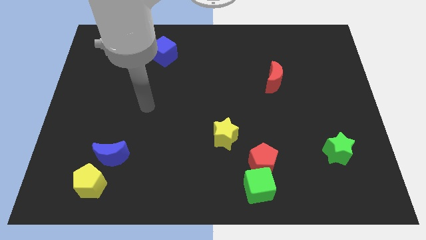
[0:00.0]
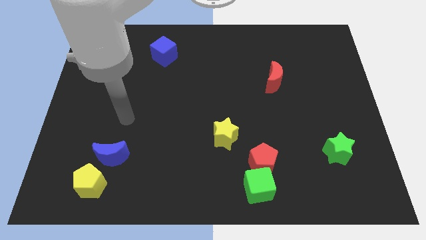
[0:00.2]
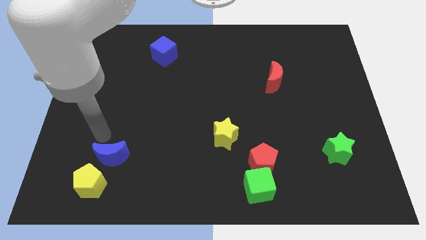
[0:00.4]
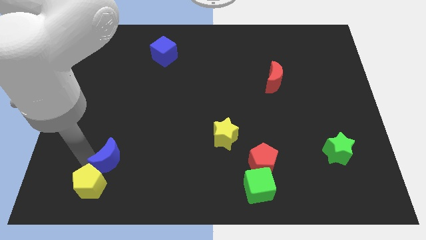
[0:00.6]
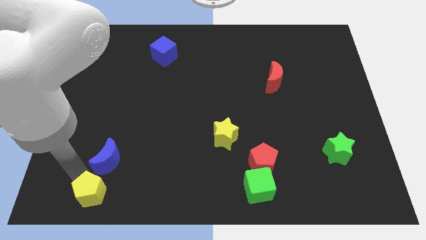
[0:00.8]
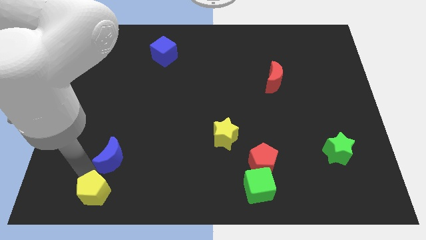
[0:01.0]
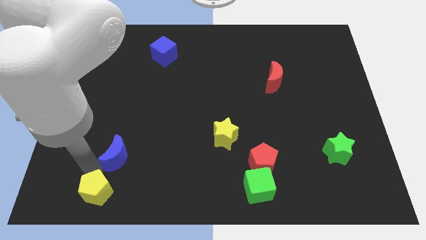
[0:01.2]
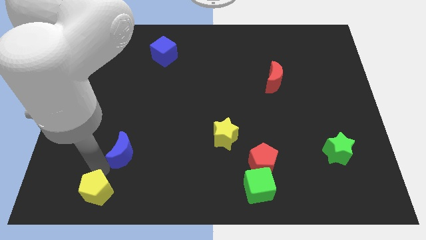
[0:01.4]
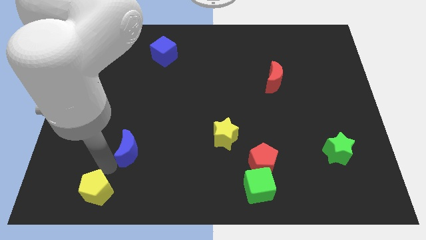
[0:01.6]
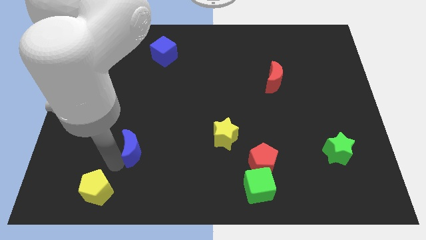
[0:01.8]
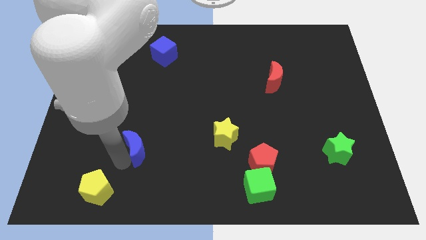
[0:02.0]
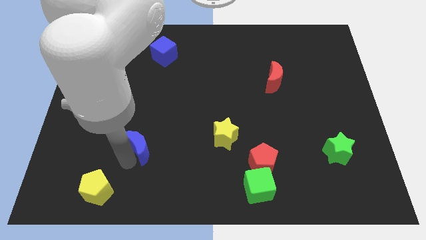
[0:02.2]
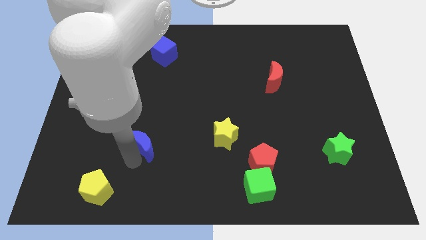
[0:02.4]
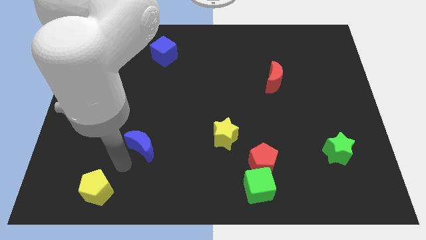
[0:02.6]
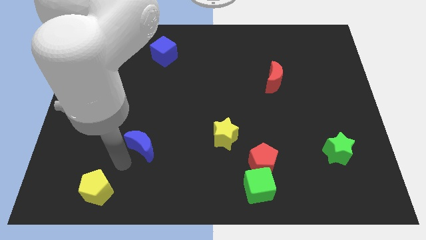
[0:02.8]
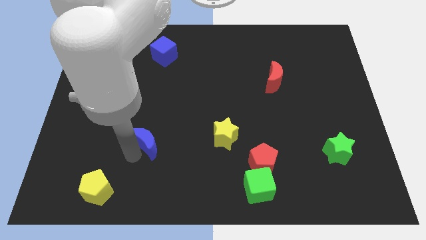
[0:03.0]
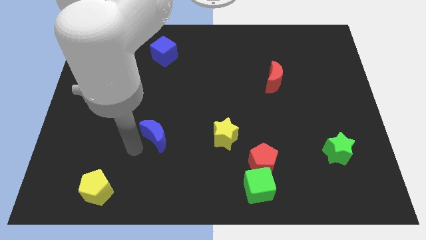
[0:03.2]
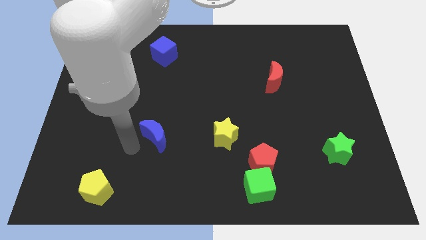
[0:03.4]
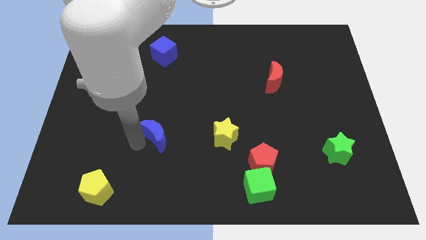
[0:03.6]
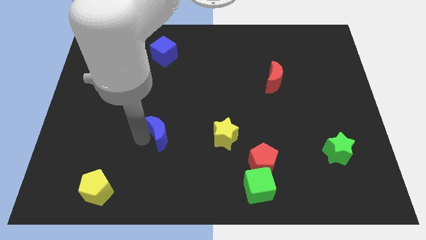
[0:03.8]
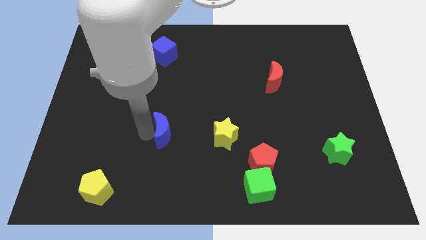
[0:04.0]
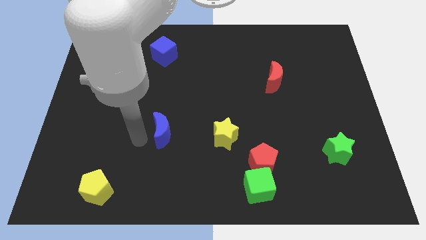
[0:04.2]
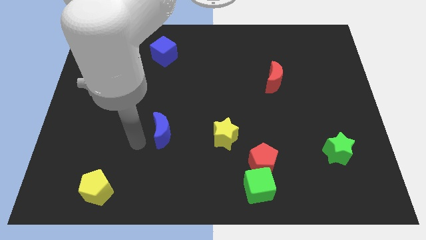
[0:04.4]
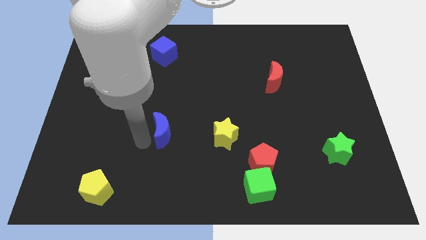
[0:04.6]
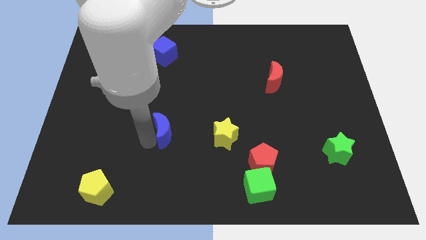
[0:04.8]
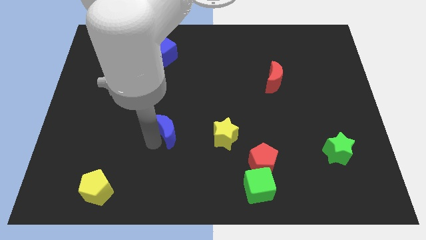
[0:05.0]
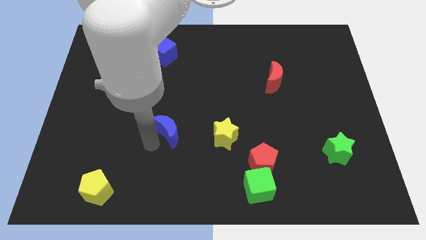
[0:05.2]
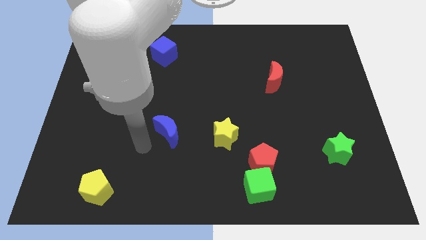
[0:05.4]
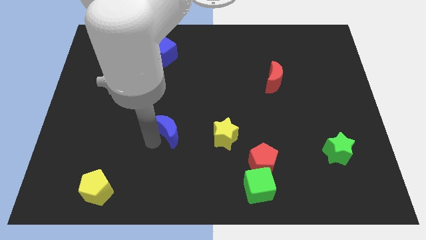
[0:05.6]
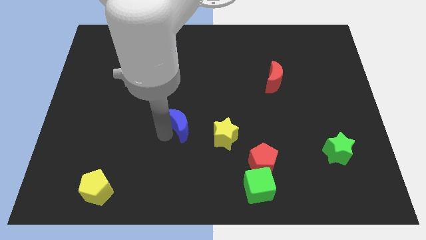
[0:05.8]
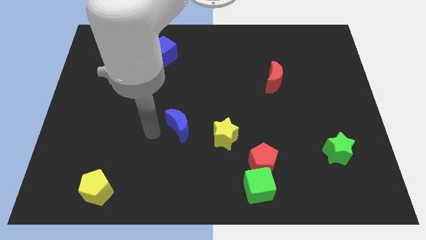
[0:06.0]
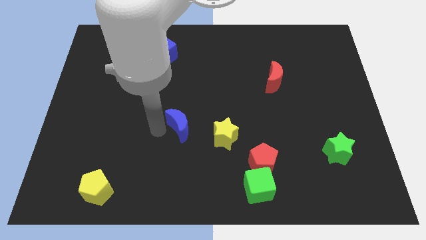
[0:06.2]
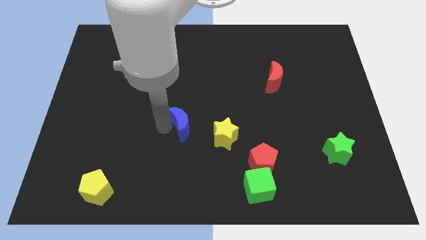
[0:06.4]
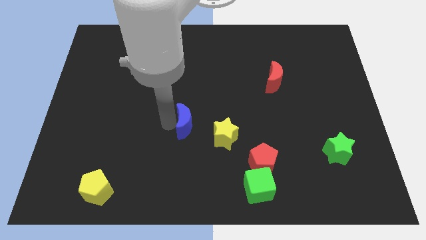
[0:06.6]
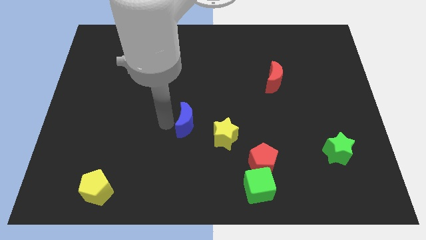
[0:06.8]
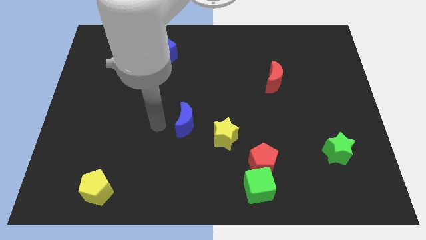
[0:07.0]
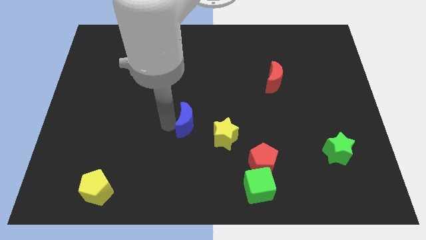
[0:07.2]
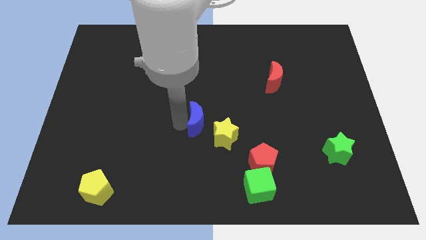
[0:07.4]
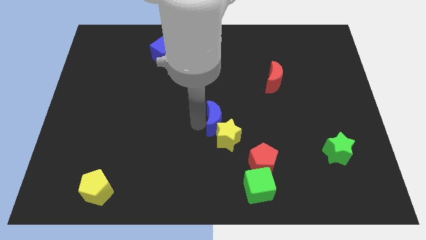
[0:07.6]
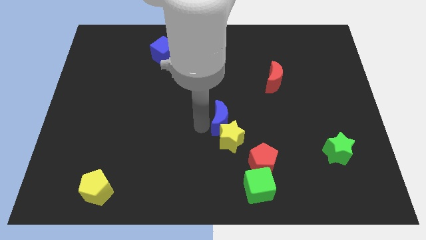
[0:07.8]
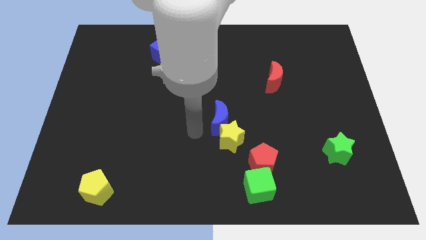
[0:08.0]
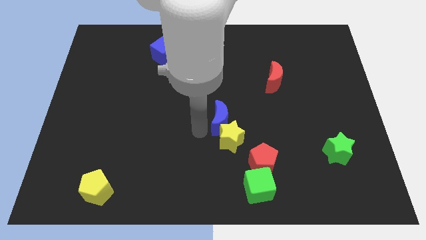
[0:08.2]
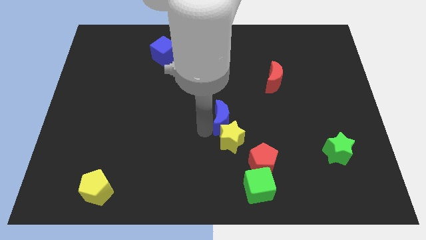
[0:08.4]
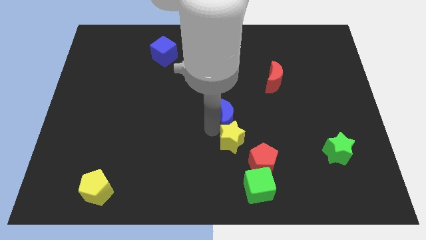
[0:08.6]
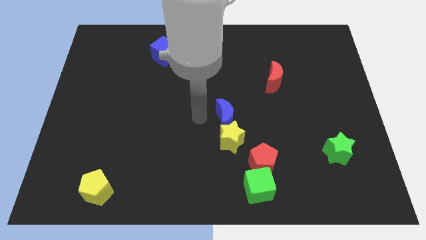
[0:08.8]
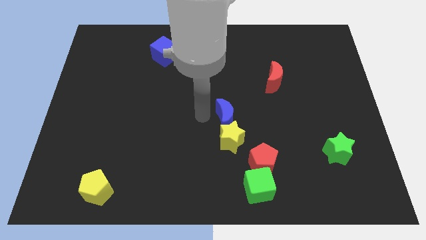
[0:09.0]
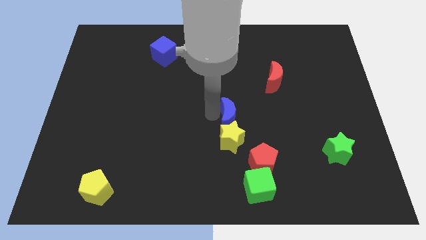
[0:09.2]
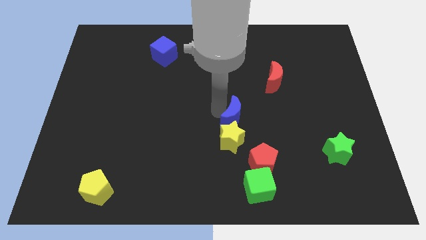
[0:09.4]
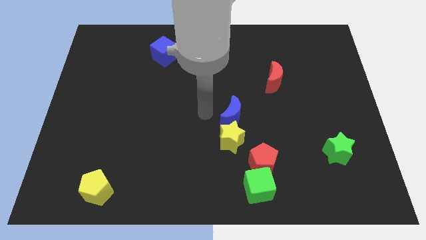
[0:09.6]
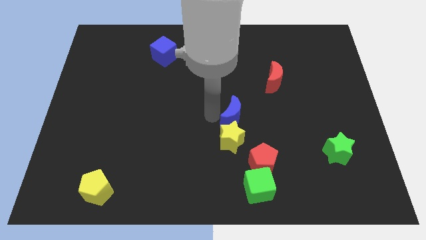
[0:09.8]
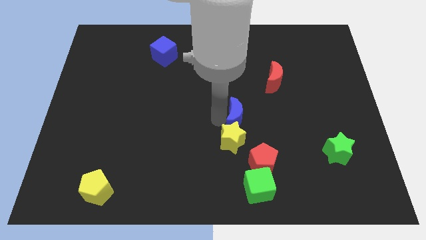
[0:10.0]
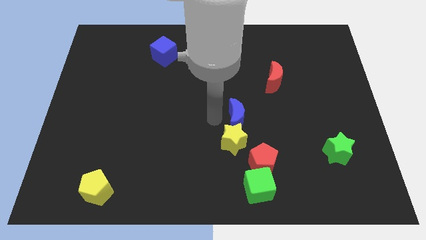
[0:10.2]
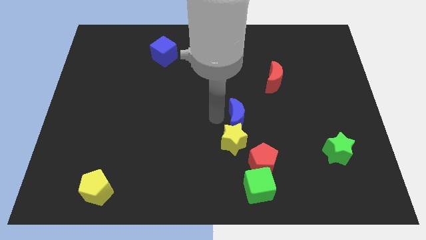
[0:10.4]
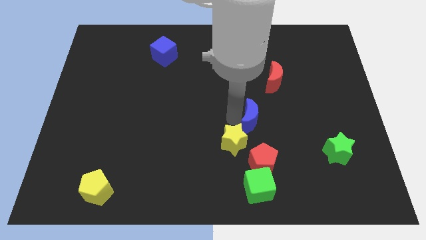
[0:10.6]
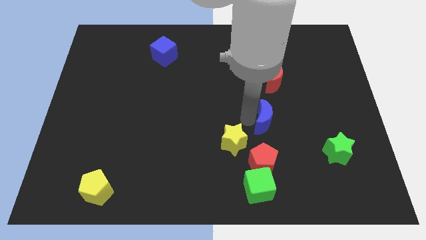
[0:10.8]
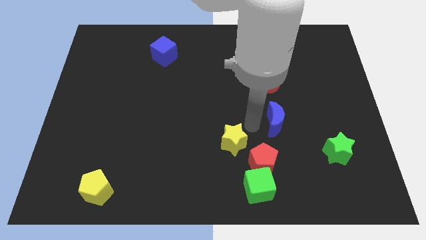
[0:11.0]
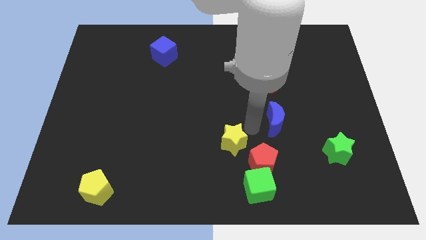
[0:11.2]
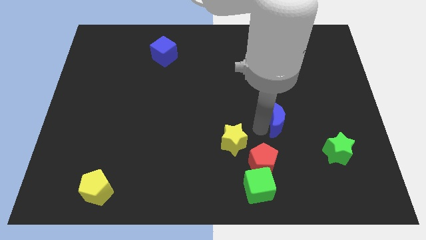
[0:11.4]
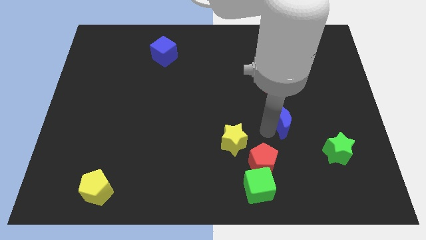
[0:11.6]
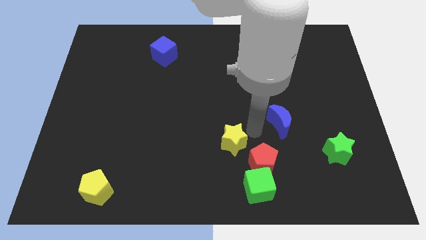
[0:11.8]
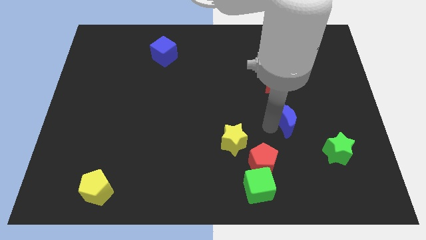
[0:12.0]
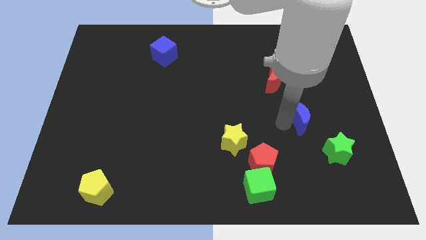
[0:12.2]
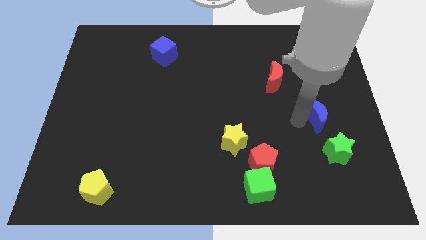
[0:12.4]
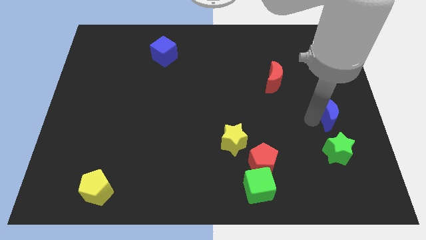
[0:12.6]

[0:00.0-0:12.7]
push the blue moon to the center right

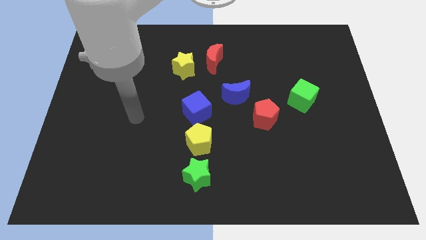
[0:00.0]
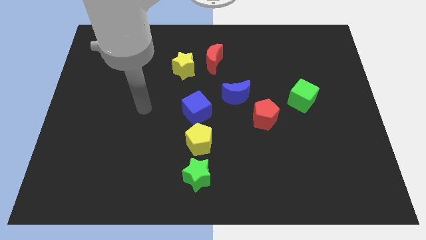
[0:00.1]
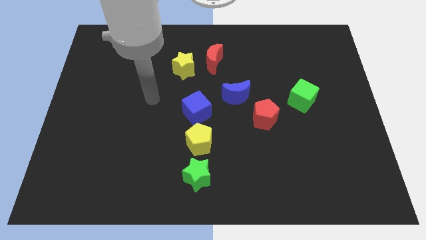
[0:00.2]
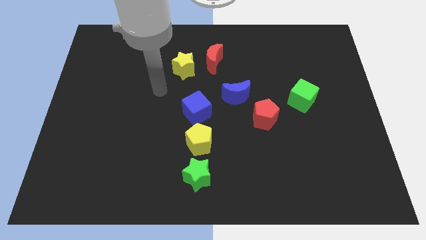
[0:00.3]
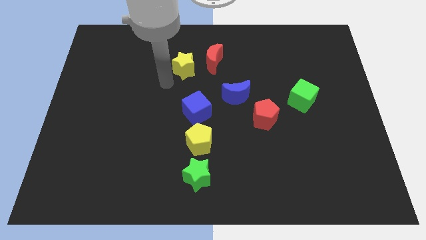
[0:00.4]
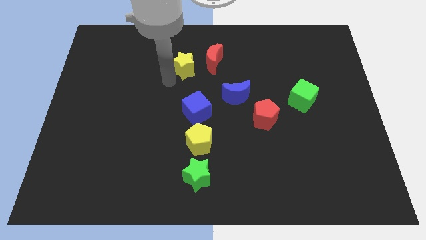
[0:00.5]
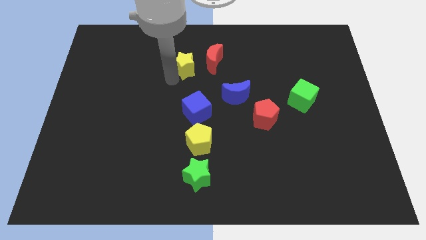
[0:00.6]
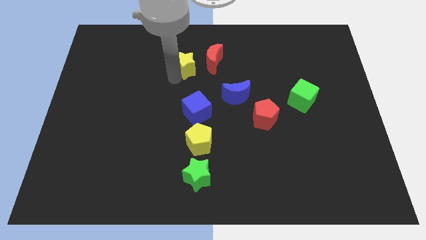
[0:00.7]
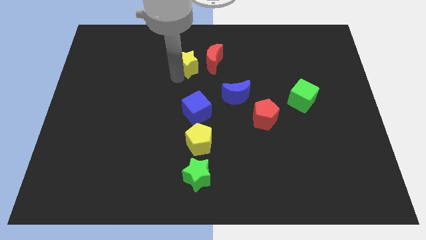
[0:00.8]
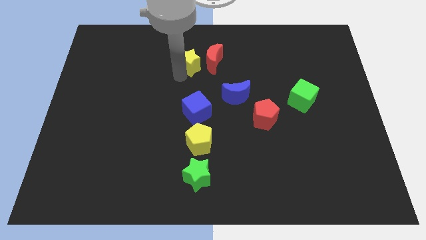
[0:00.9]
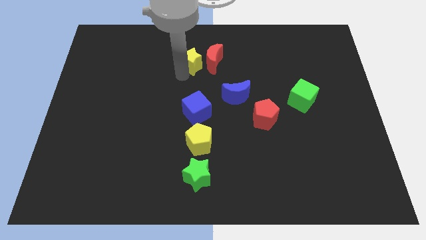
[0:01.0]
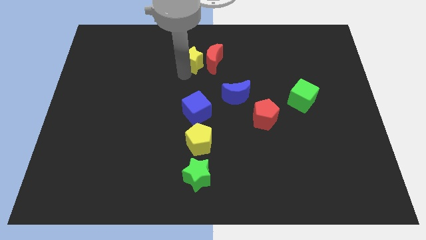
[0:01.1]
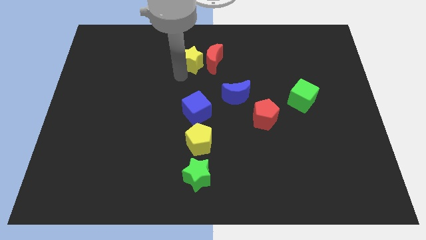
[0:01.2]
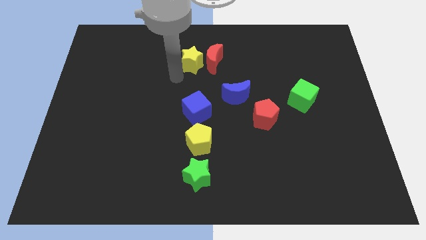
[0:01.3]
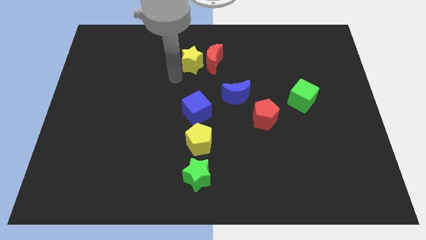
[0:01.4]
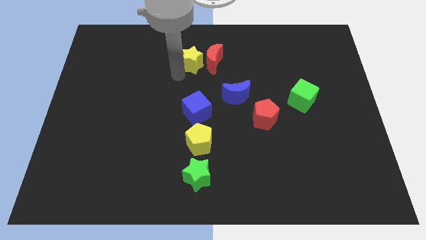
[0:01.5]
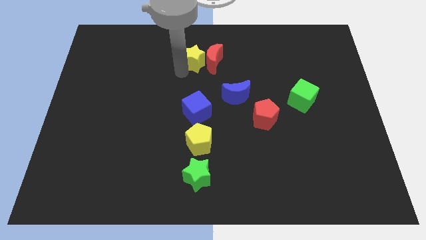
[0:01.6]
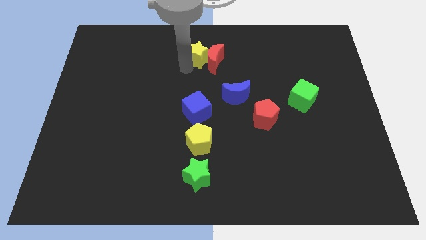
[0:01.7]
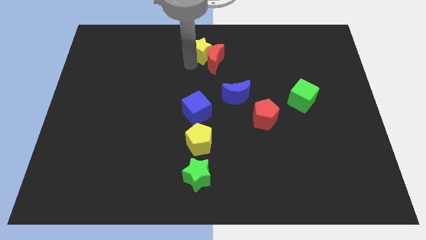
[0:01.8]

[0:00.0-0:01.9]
push the yellow star to the top
